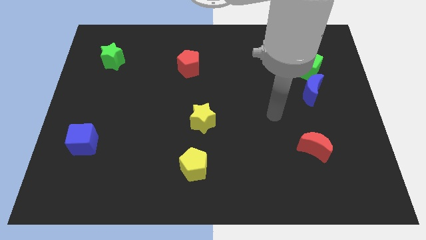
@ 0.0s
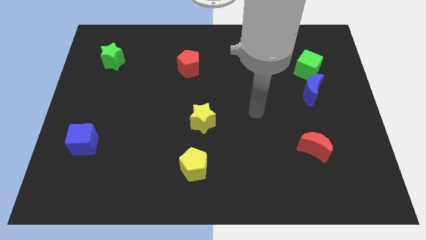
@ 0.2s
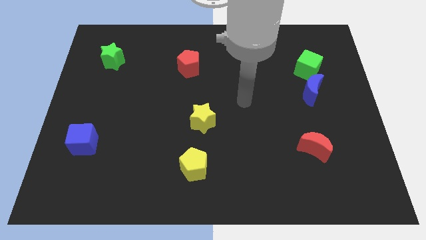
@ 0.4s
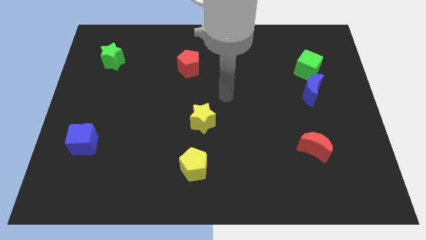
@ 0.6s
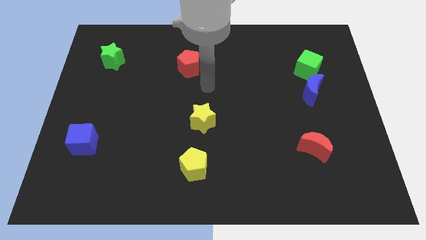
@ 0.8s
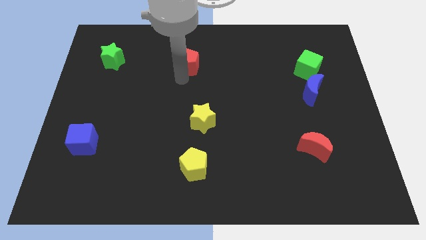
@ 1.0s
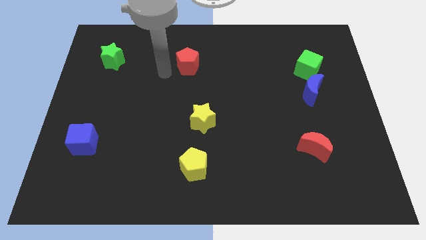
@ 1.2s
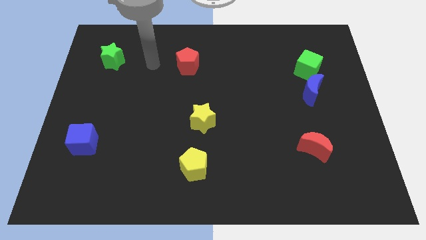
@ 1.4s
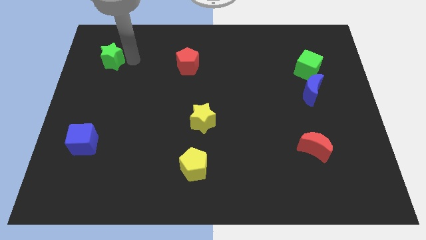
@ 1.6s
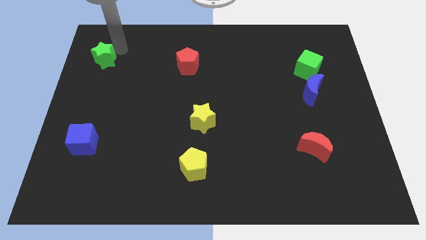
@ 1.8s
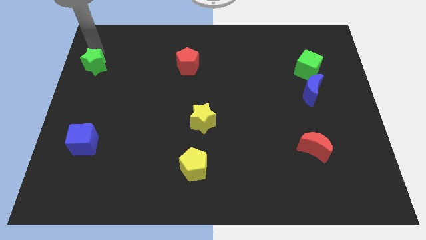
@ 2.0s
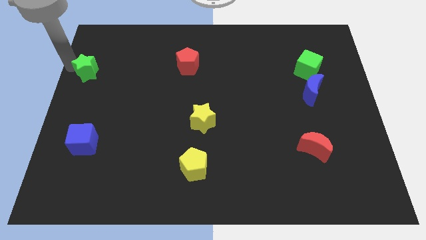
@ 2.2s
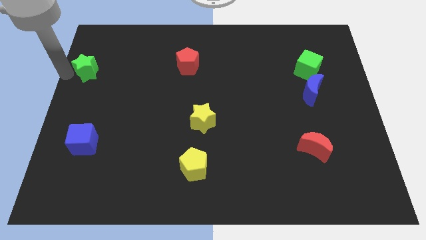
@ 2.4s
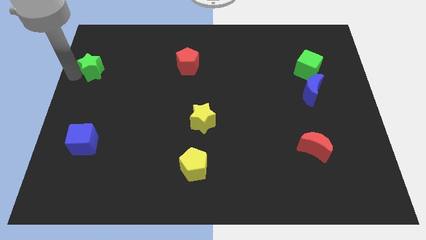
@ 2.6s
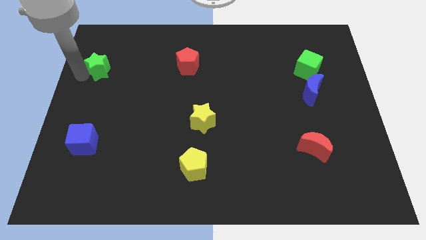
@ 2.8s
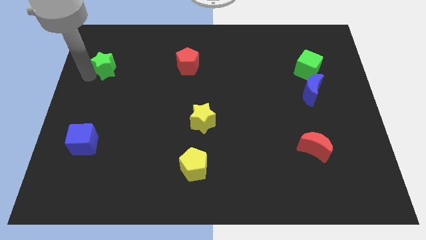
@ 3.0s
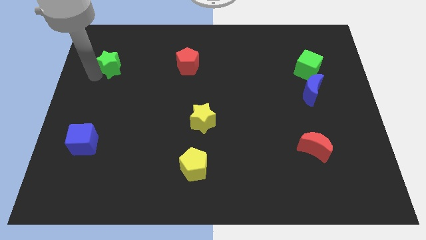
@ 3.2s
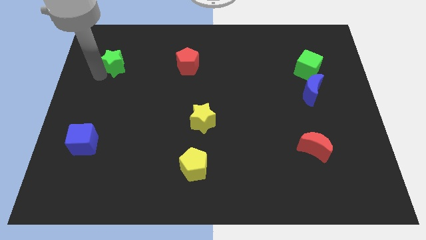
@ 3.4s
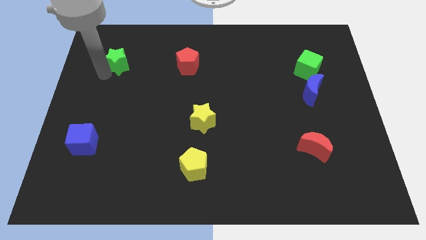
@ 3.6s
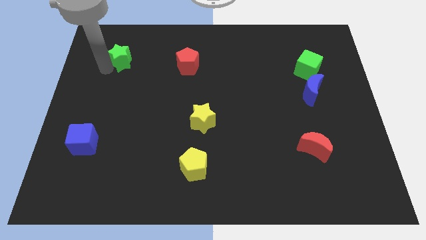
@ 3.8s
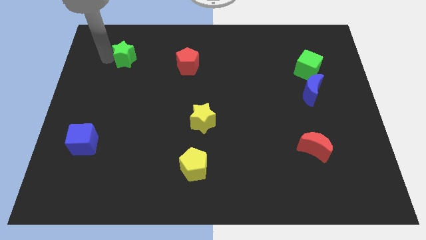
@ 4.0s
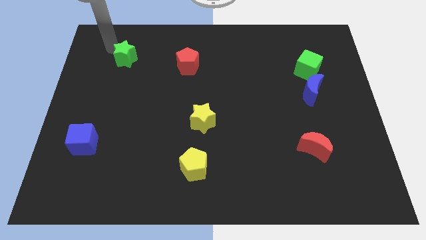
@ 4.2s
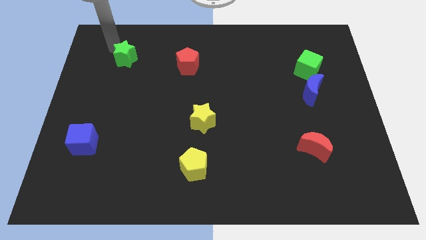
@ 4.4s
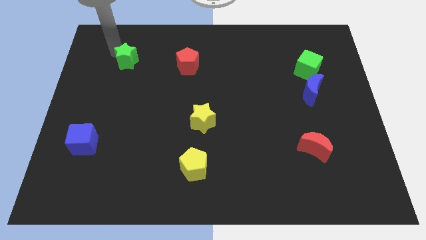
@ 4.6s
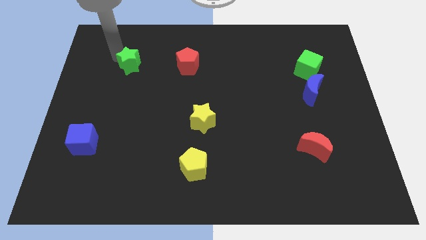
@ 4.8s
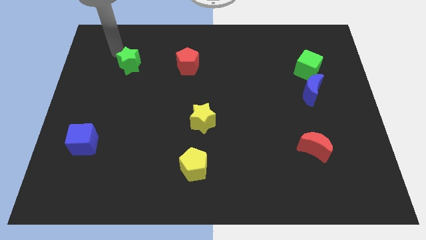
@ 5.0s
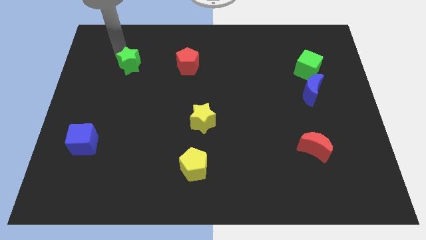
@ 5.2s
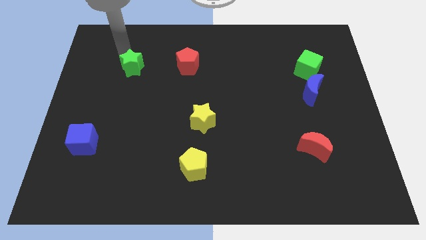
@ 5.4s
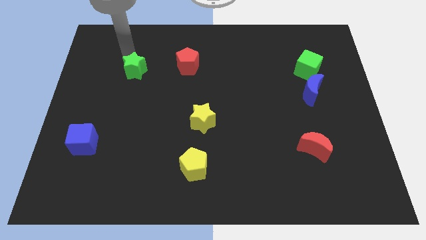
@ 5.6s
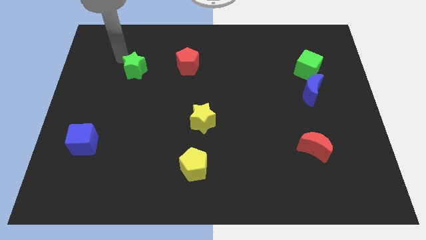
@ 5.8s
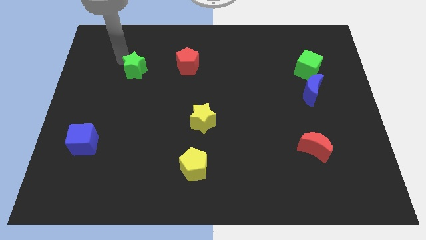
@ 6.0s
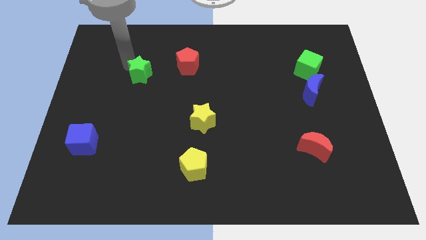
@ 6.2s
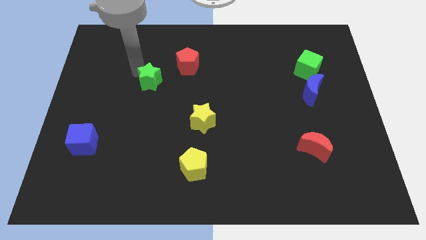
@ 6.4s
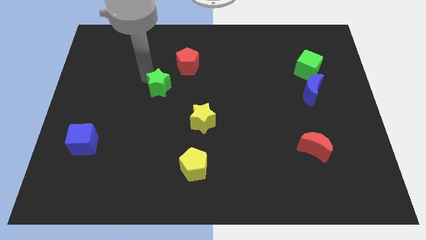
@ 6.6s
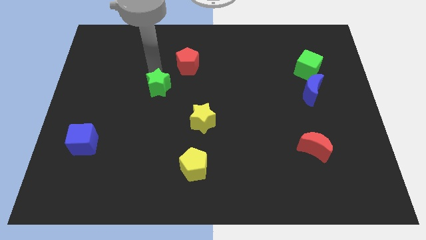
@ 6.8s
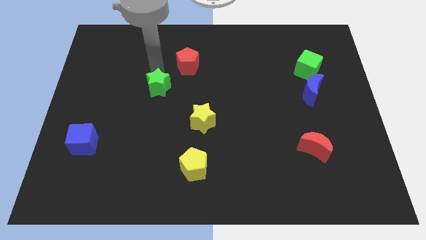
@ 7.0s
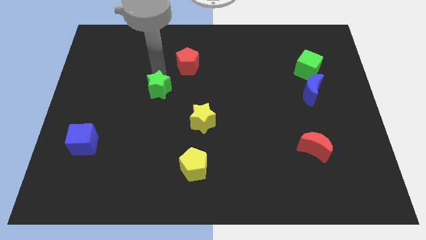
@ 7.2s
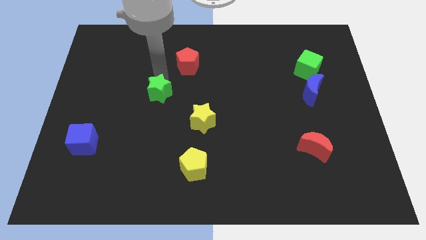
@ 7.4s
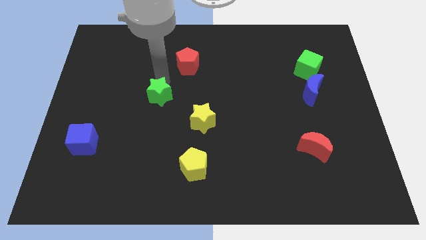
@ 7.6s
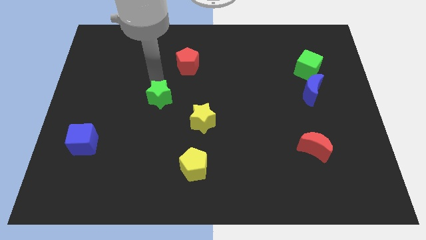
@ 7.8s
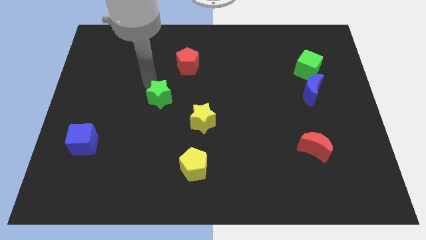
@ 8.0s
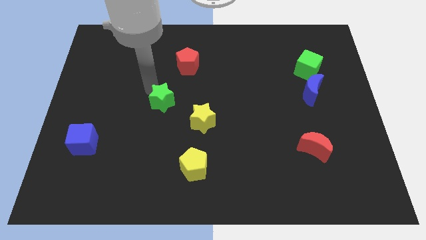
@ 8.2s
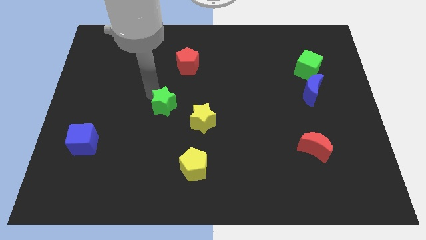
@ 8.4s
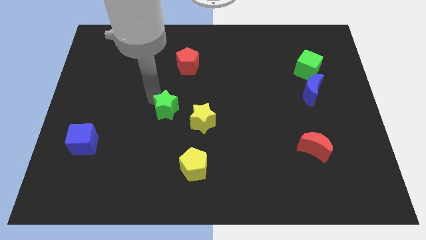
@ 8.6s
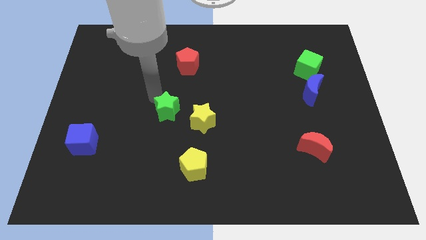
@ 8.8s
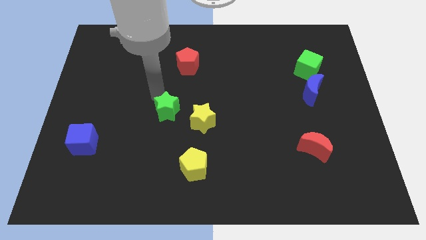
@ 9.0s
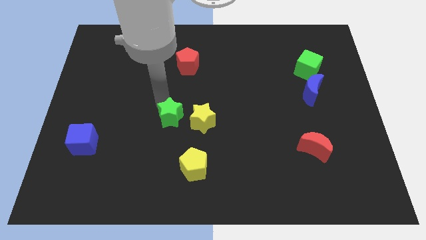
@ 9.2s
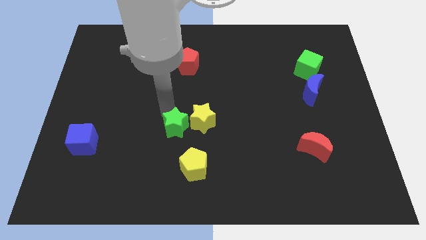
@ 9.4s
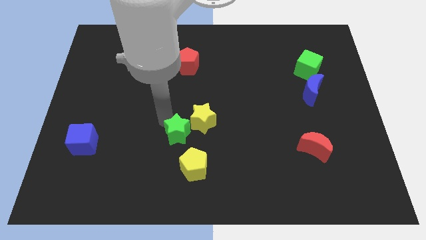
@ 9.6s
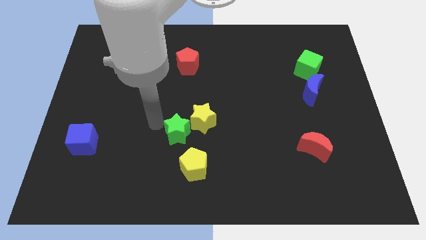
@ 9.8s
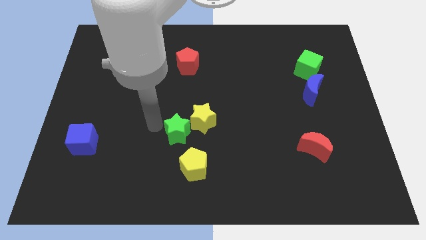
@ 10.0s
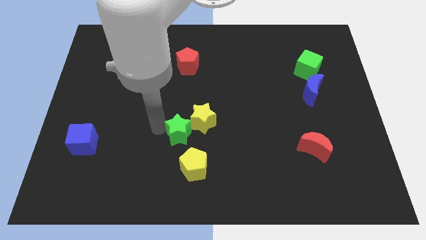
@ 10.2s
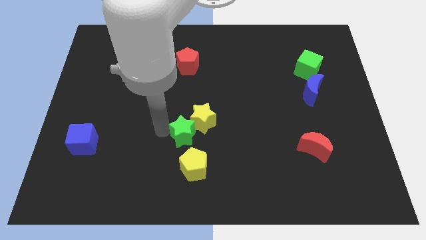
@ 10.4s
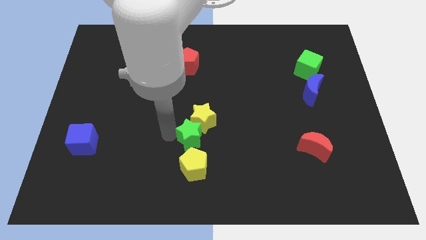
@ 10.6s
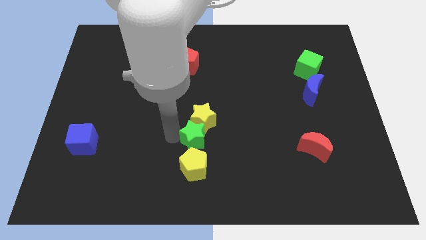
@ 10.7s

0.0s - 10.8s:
push the green star diagonally down and to the right of the yellow star

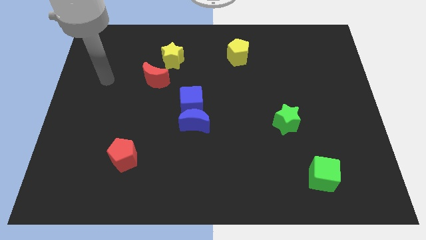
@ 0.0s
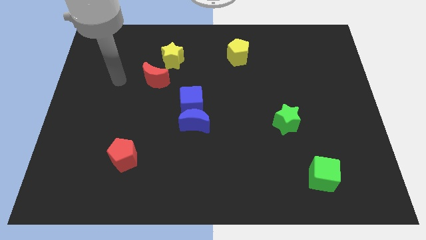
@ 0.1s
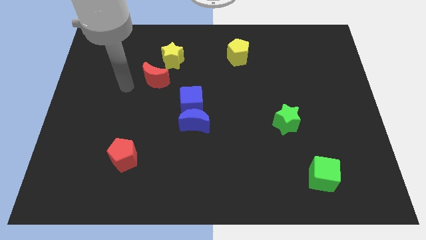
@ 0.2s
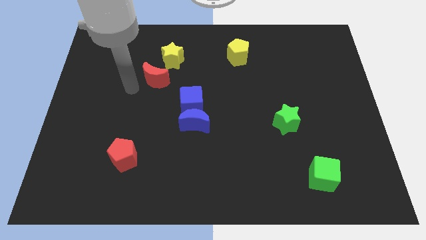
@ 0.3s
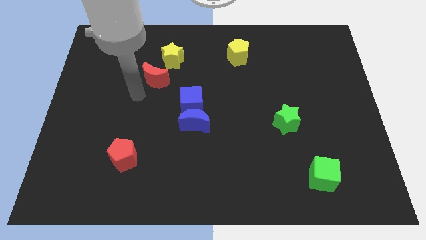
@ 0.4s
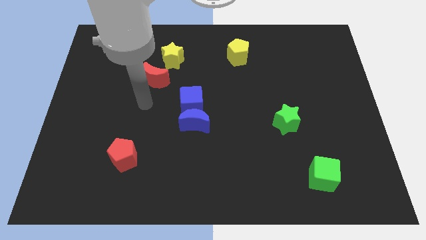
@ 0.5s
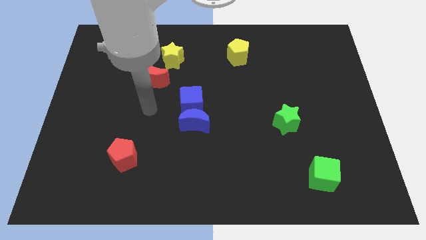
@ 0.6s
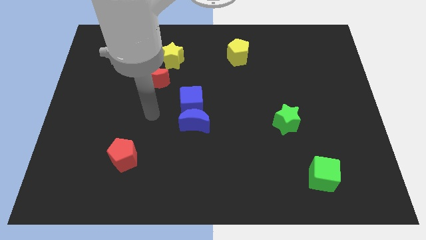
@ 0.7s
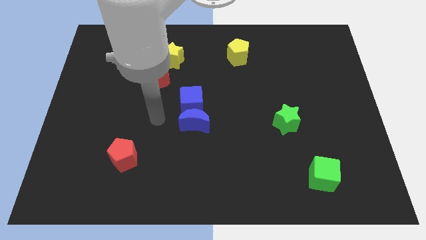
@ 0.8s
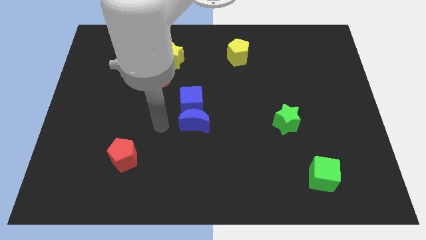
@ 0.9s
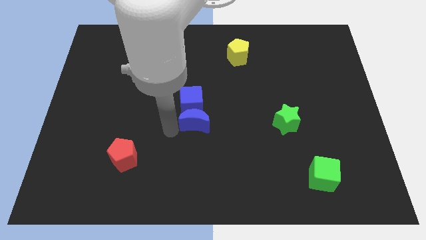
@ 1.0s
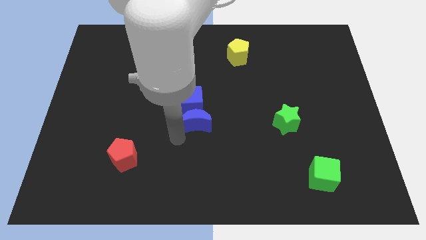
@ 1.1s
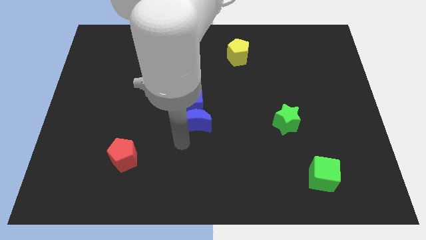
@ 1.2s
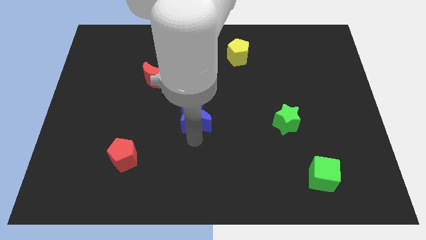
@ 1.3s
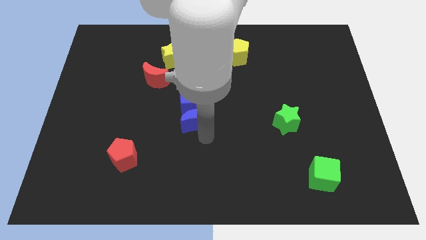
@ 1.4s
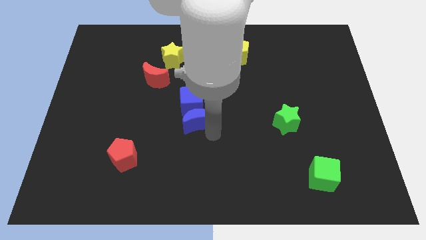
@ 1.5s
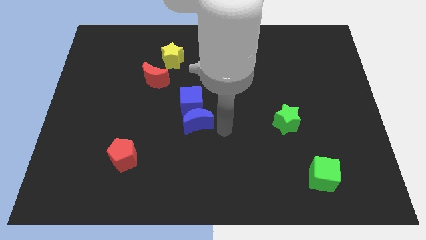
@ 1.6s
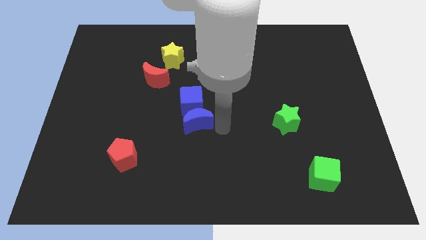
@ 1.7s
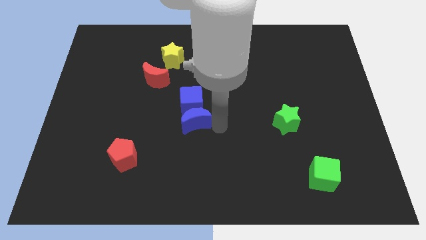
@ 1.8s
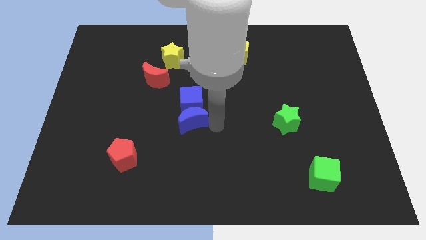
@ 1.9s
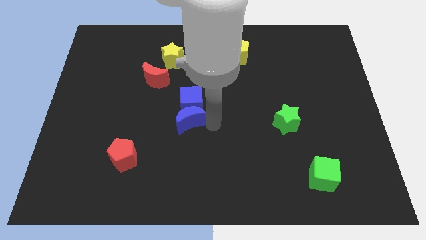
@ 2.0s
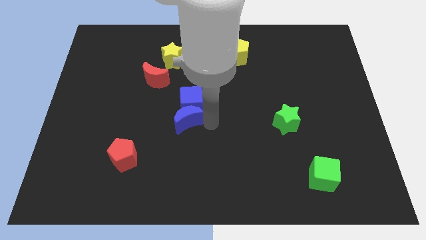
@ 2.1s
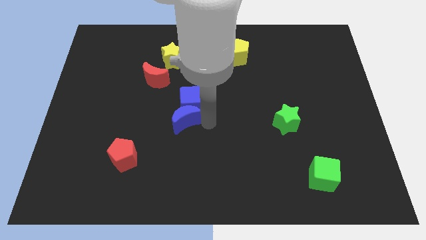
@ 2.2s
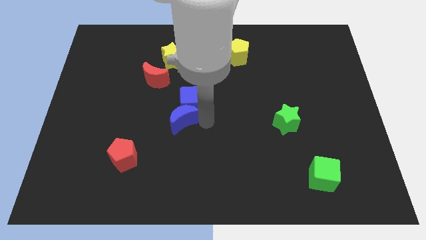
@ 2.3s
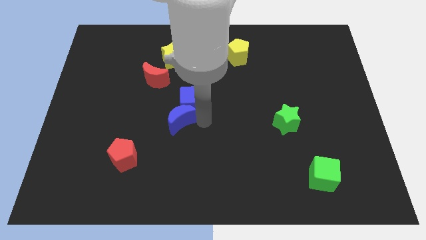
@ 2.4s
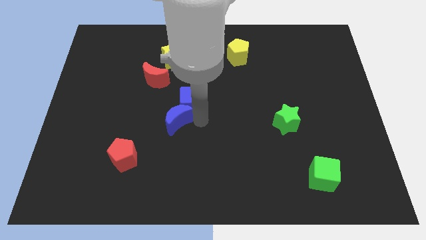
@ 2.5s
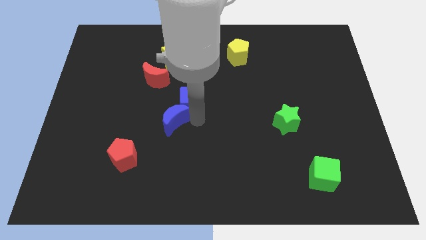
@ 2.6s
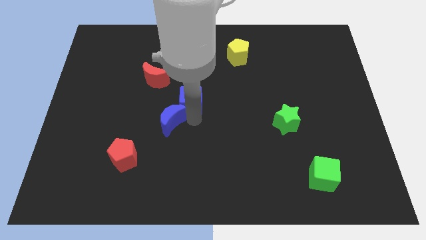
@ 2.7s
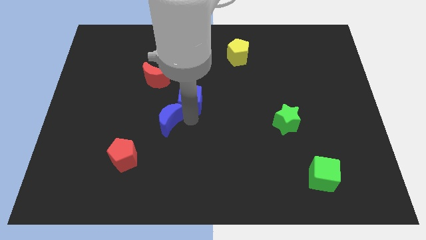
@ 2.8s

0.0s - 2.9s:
slide the blue moon to the bottom of the red moon
